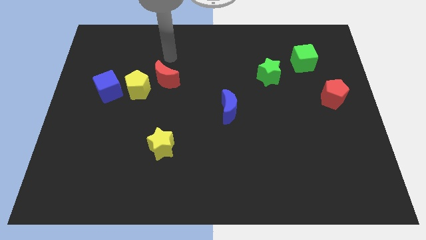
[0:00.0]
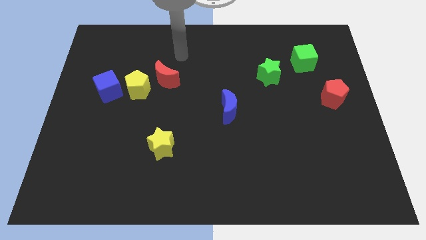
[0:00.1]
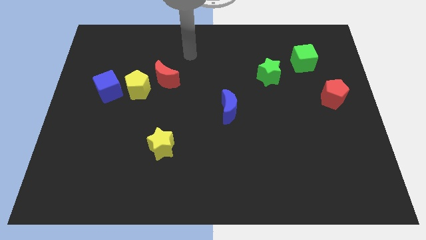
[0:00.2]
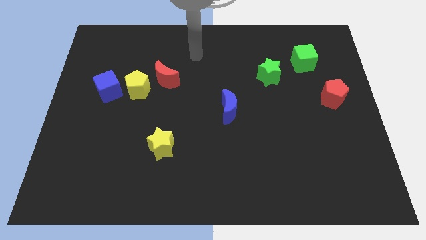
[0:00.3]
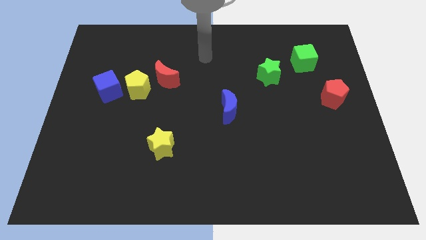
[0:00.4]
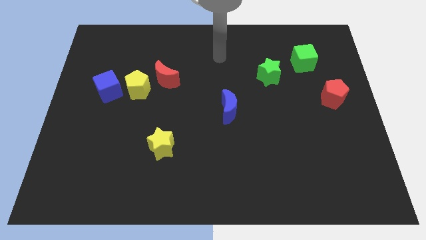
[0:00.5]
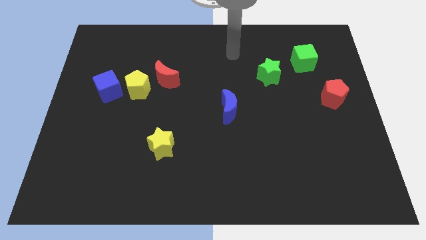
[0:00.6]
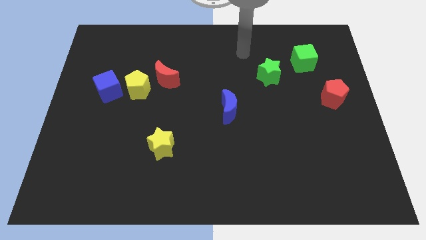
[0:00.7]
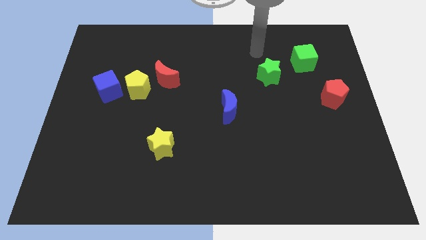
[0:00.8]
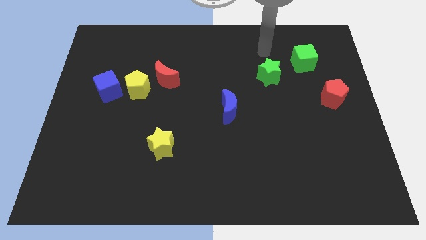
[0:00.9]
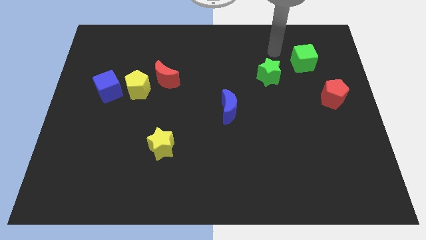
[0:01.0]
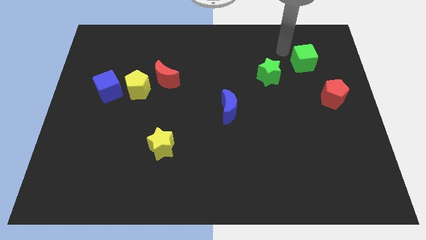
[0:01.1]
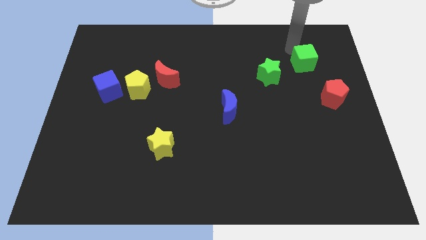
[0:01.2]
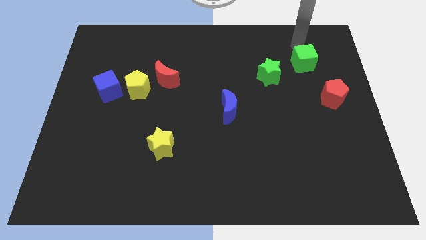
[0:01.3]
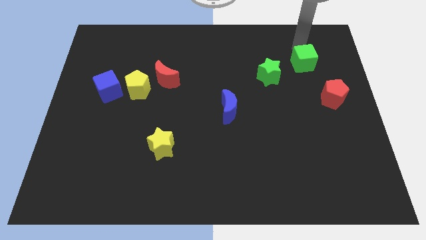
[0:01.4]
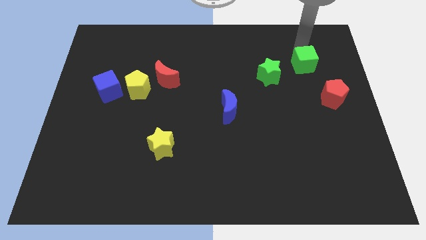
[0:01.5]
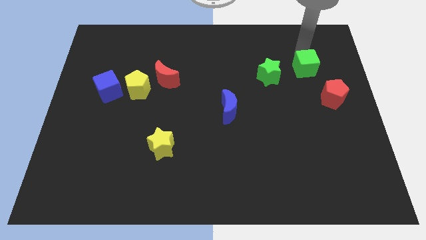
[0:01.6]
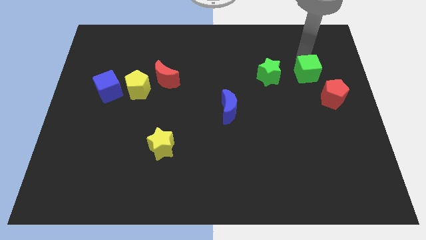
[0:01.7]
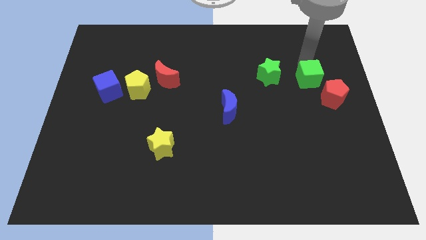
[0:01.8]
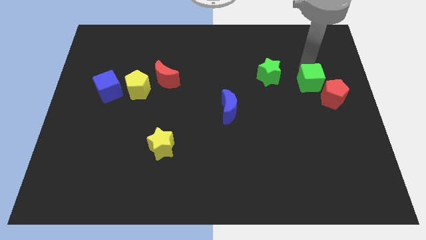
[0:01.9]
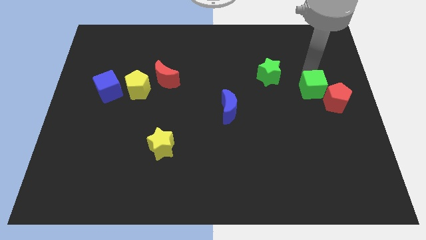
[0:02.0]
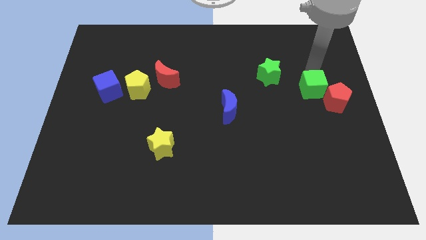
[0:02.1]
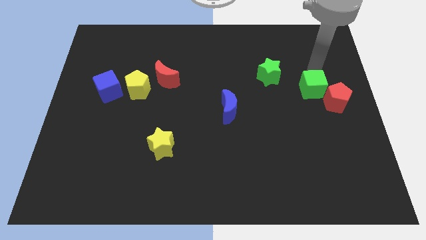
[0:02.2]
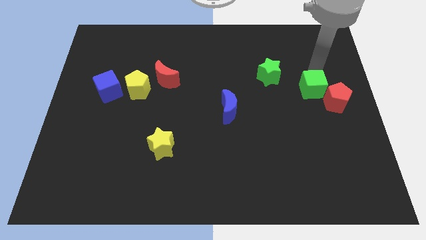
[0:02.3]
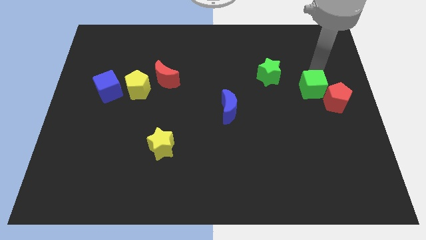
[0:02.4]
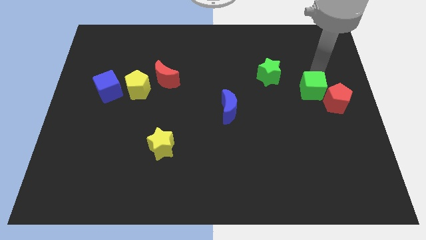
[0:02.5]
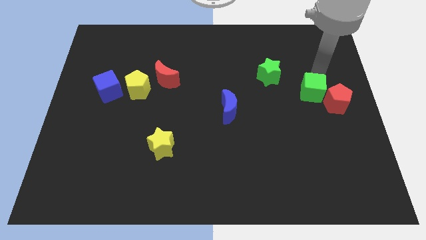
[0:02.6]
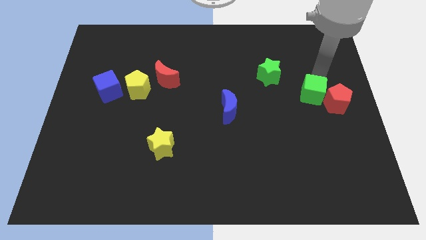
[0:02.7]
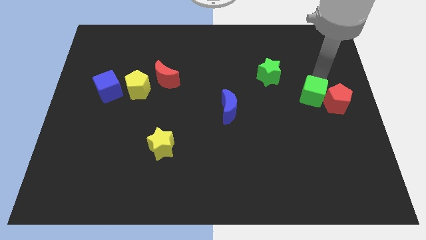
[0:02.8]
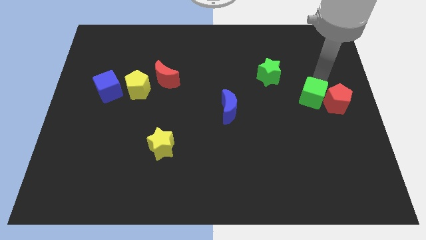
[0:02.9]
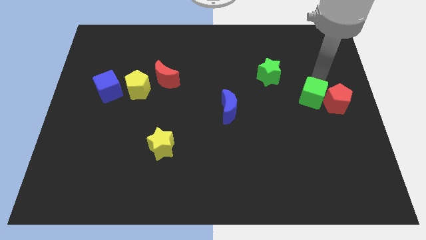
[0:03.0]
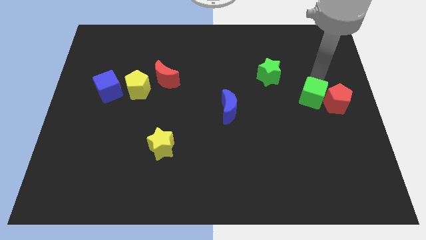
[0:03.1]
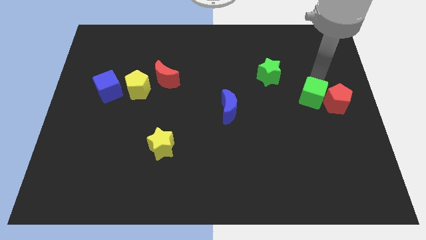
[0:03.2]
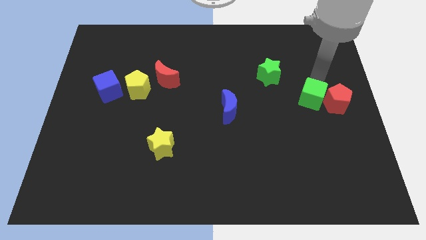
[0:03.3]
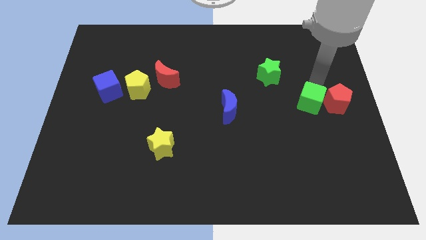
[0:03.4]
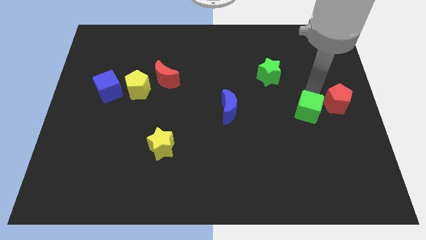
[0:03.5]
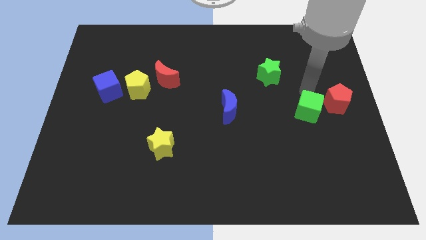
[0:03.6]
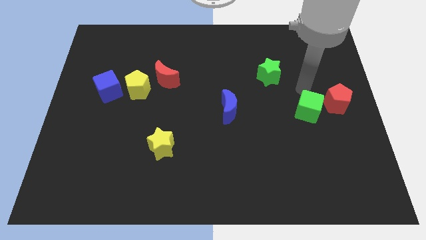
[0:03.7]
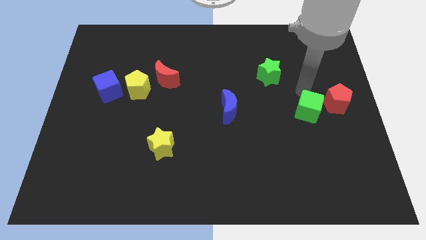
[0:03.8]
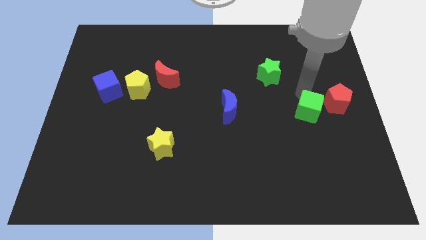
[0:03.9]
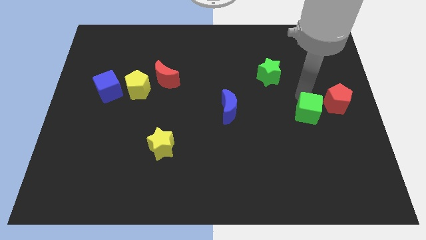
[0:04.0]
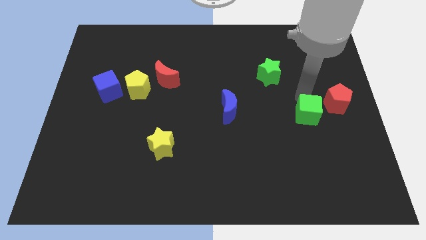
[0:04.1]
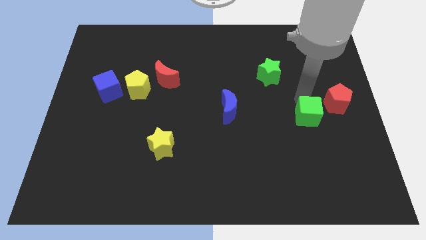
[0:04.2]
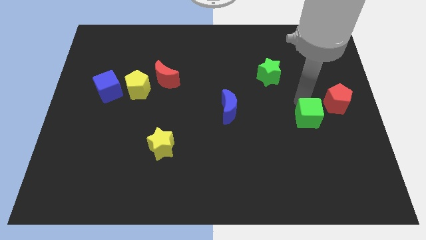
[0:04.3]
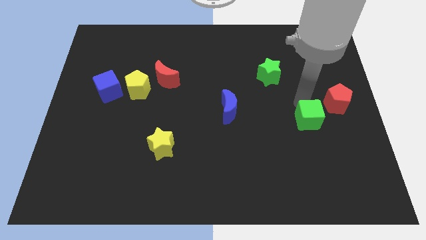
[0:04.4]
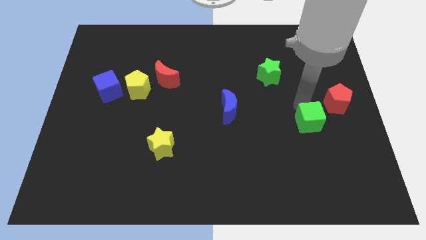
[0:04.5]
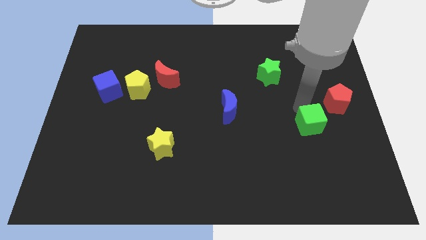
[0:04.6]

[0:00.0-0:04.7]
push the green cube down

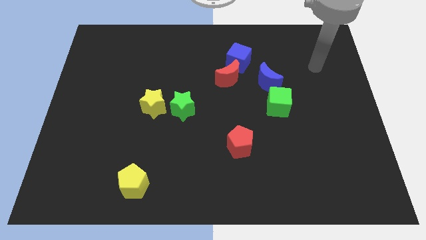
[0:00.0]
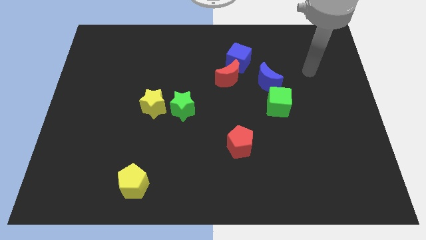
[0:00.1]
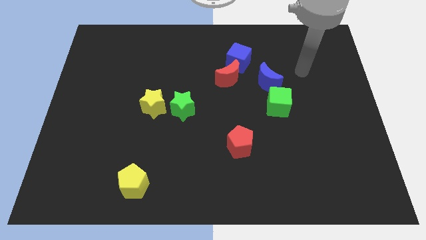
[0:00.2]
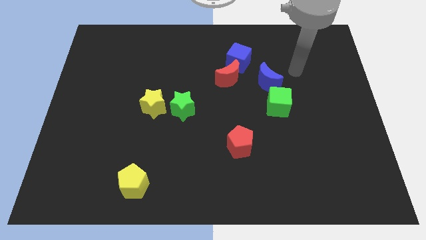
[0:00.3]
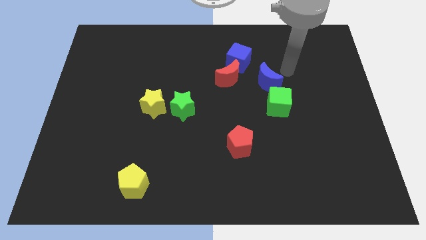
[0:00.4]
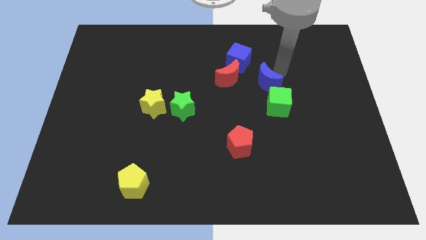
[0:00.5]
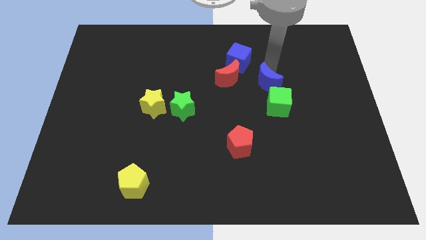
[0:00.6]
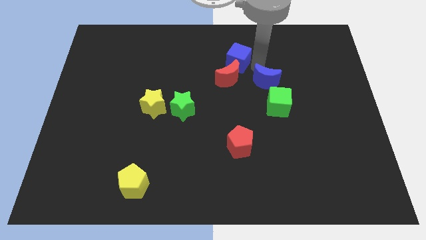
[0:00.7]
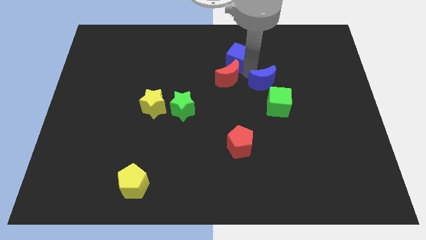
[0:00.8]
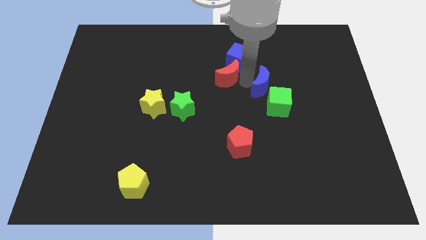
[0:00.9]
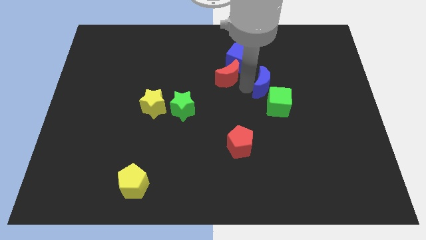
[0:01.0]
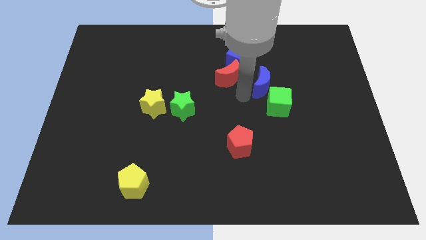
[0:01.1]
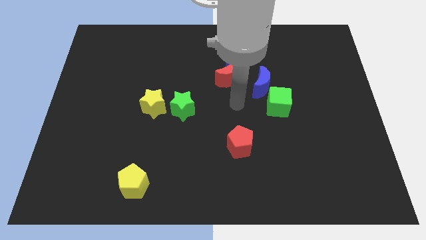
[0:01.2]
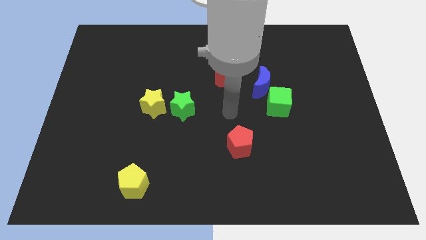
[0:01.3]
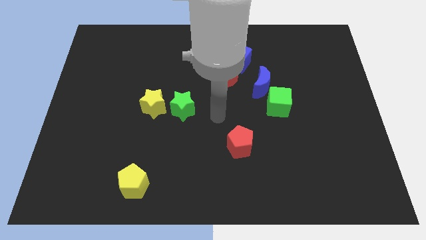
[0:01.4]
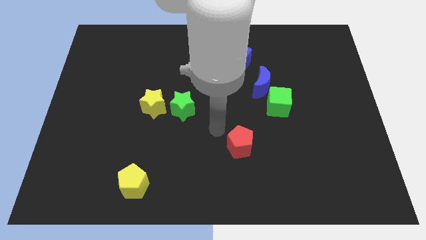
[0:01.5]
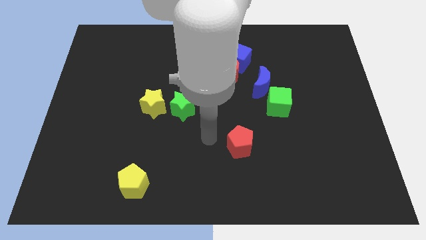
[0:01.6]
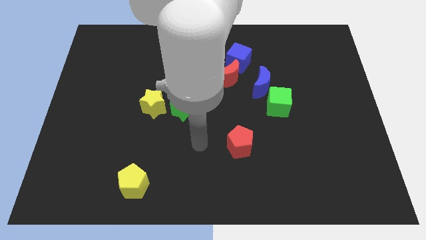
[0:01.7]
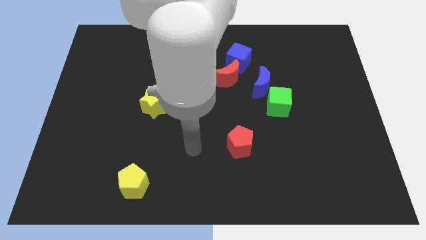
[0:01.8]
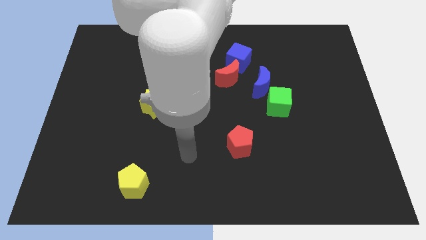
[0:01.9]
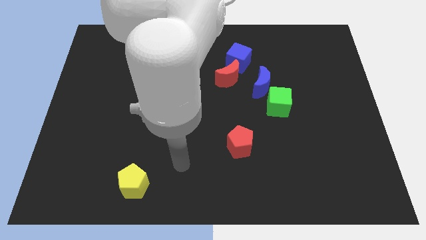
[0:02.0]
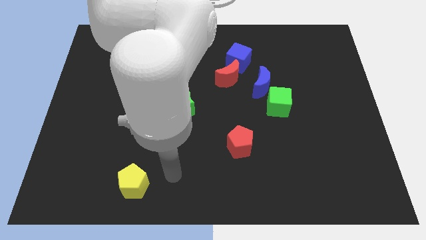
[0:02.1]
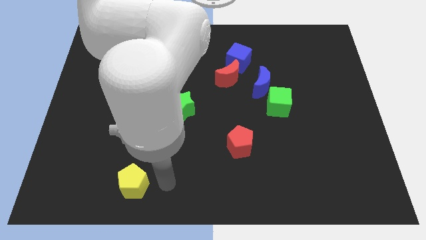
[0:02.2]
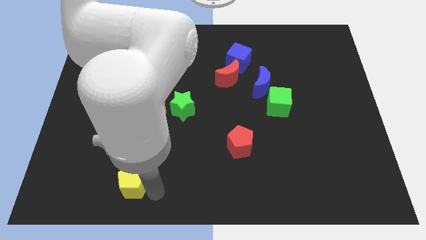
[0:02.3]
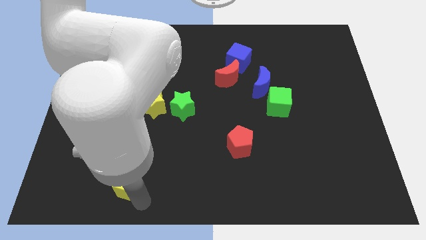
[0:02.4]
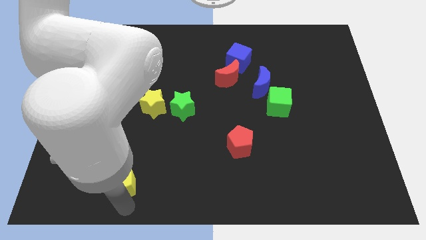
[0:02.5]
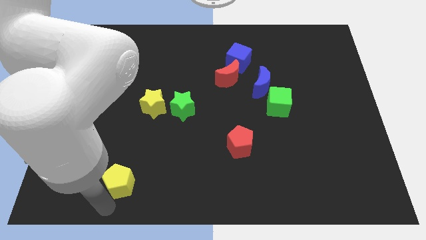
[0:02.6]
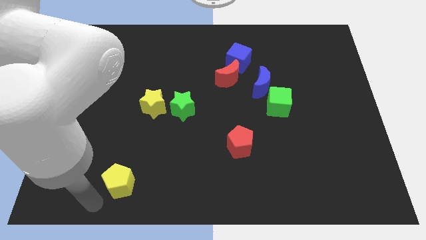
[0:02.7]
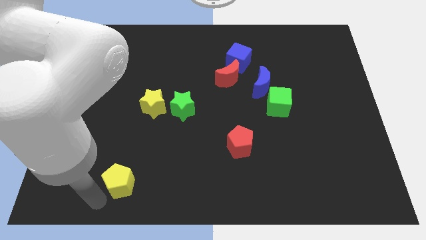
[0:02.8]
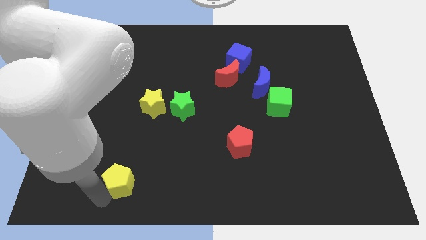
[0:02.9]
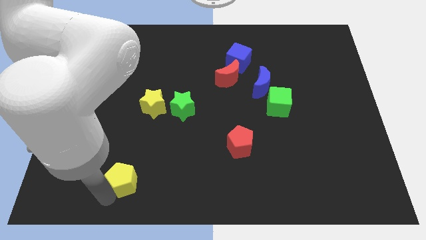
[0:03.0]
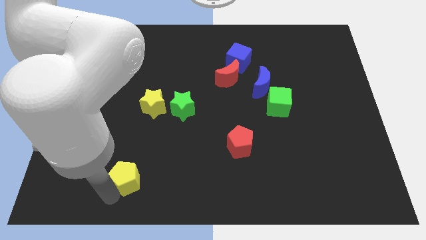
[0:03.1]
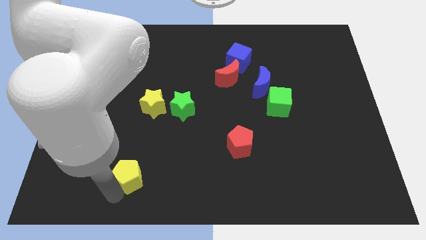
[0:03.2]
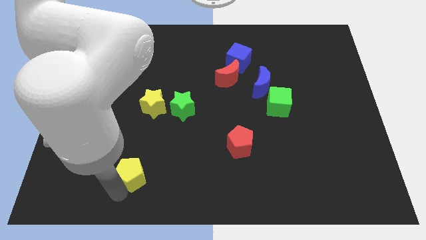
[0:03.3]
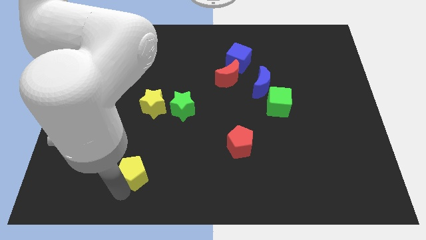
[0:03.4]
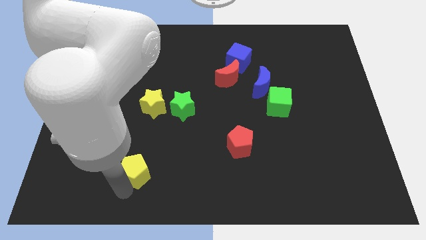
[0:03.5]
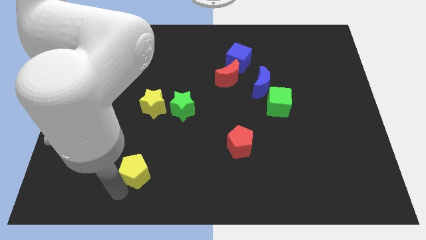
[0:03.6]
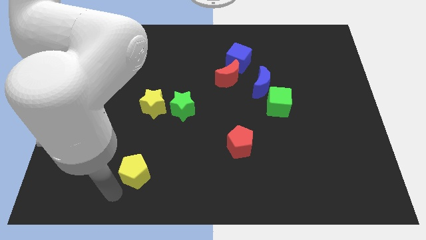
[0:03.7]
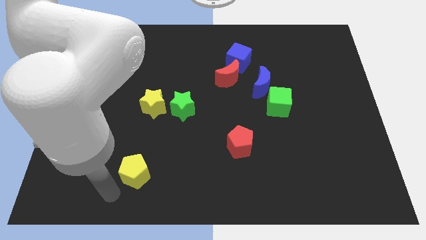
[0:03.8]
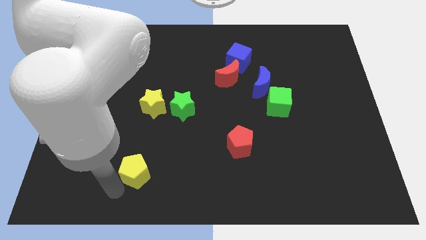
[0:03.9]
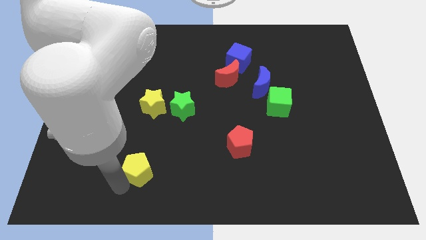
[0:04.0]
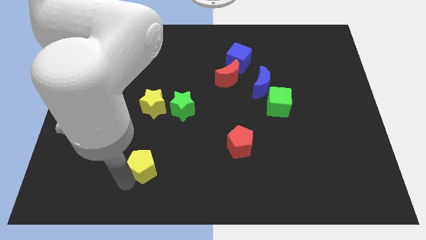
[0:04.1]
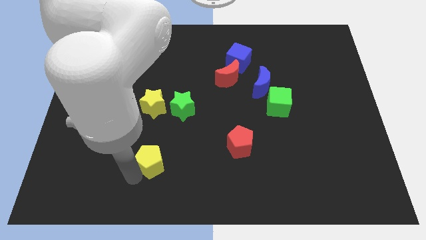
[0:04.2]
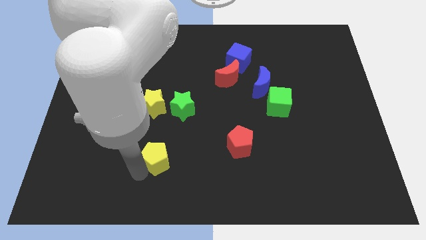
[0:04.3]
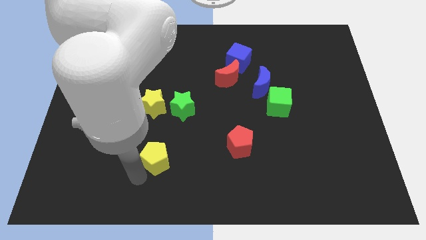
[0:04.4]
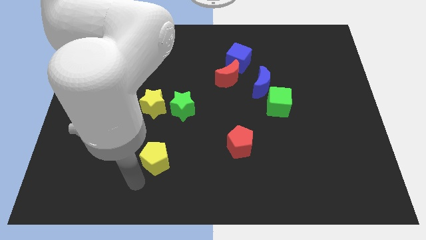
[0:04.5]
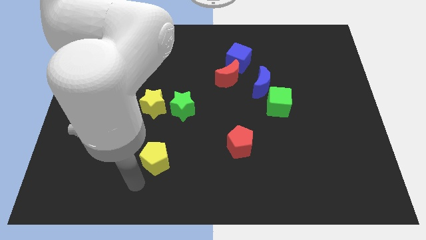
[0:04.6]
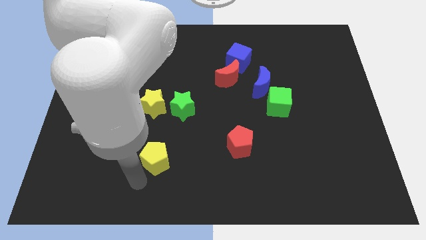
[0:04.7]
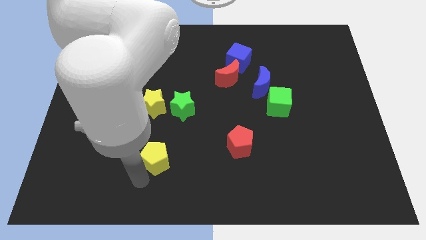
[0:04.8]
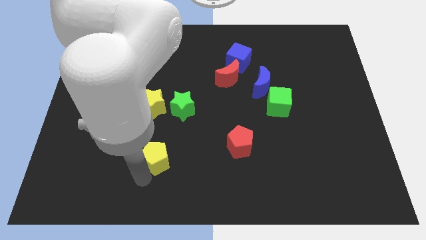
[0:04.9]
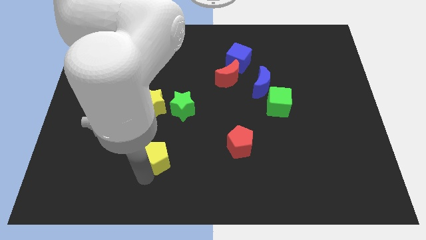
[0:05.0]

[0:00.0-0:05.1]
push the yellow pentagon up and right diagonally a little bit
